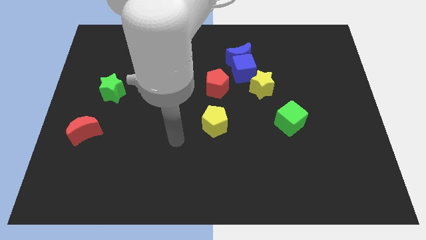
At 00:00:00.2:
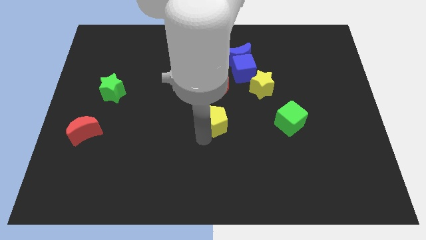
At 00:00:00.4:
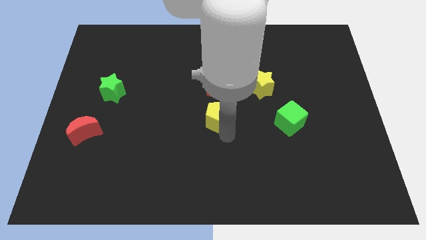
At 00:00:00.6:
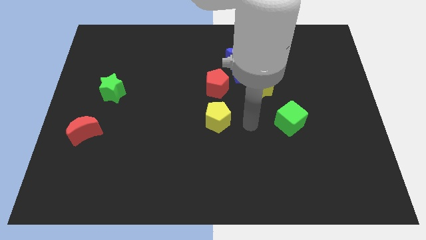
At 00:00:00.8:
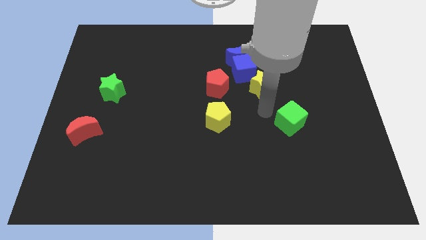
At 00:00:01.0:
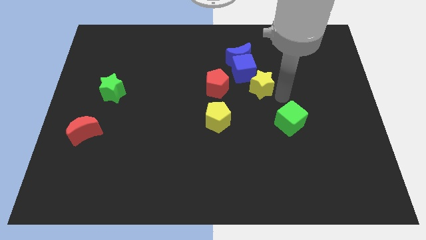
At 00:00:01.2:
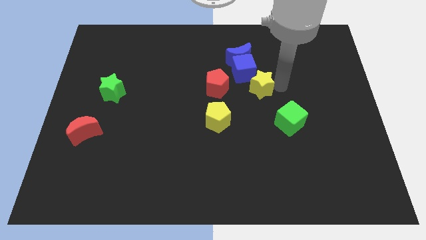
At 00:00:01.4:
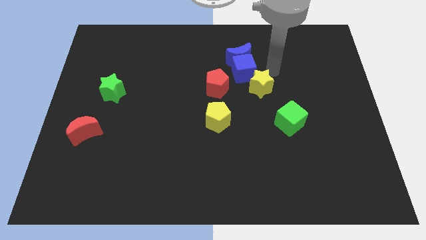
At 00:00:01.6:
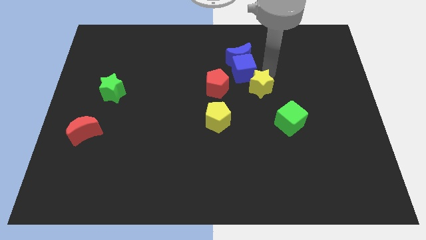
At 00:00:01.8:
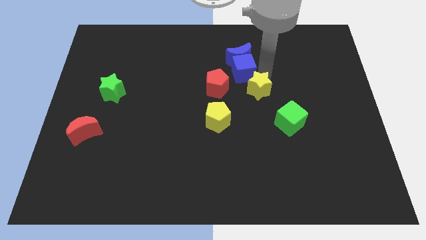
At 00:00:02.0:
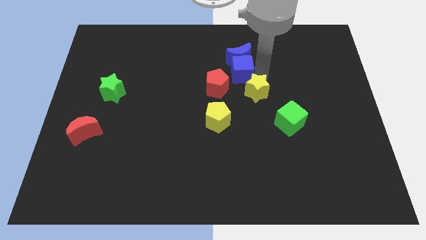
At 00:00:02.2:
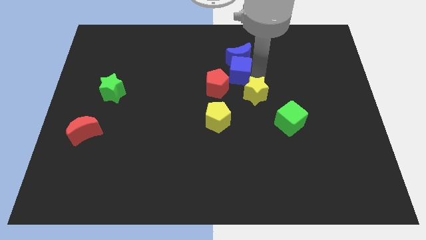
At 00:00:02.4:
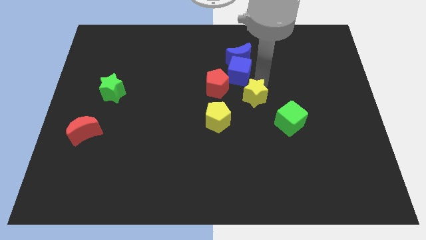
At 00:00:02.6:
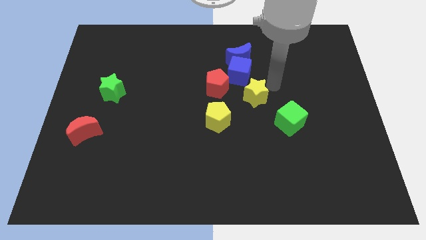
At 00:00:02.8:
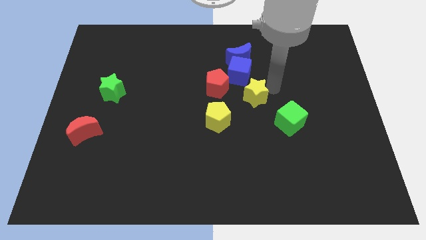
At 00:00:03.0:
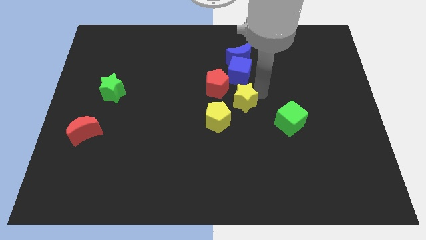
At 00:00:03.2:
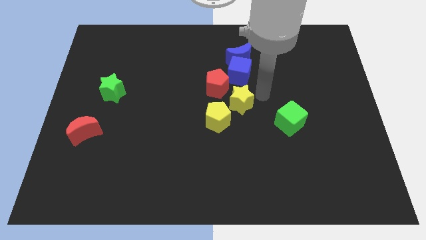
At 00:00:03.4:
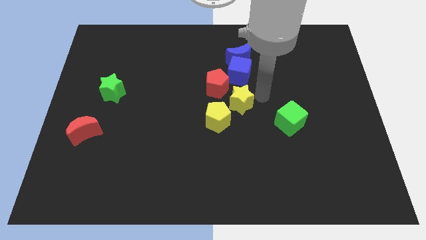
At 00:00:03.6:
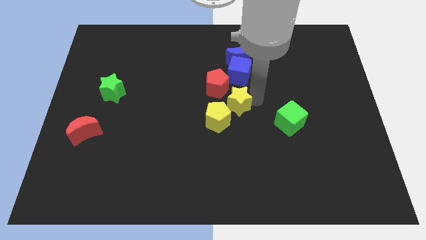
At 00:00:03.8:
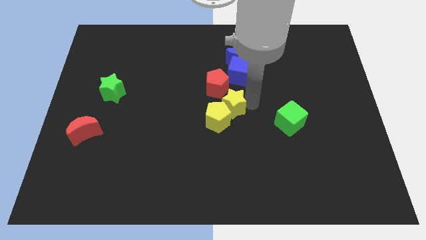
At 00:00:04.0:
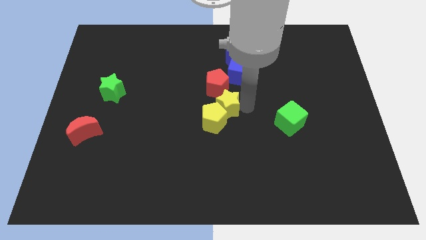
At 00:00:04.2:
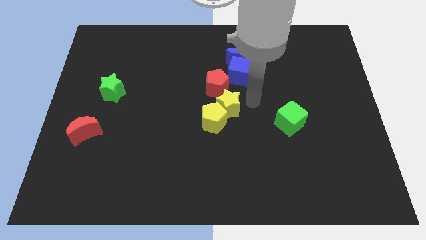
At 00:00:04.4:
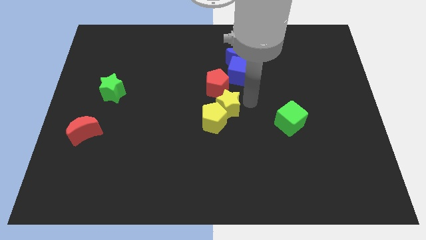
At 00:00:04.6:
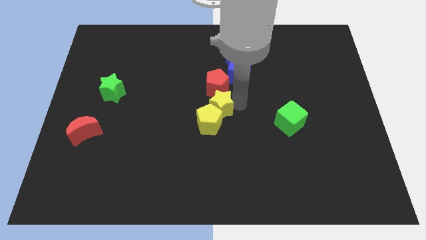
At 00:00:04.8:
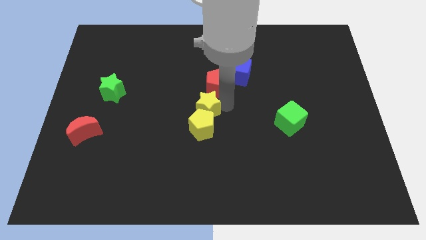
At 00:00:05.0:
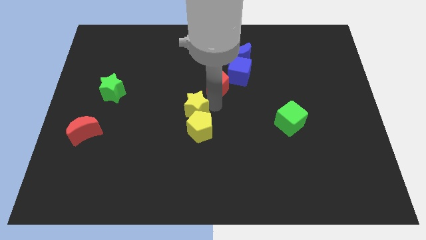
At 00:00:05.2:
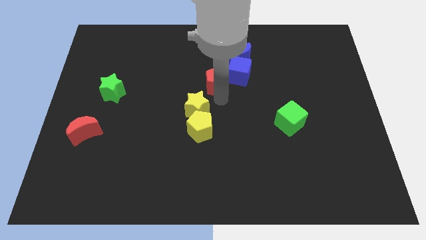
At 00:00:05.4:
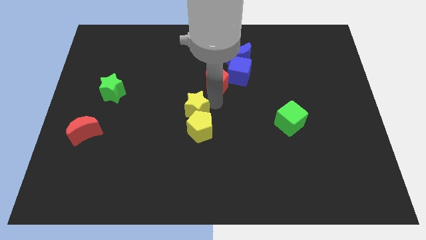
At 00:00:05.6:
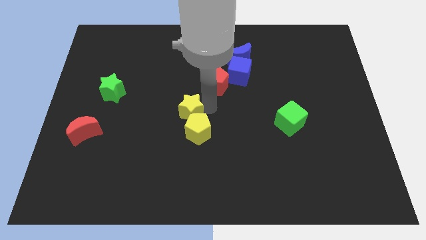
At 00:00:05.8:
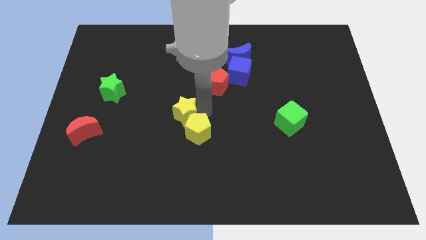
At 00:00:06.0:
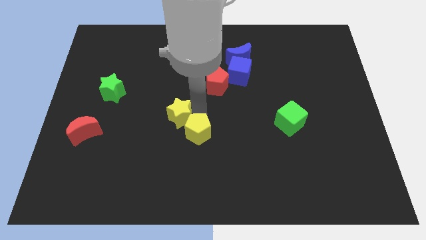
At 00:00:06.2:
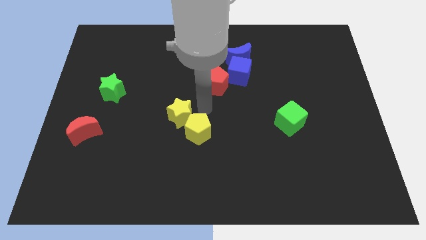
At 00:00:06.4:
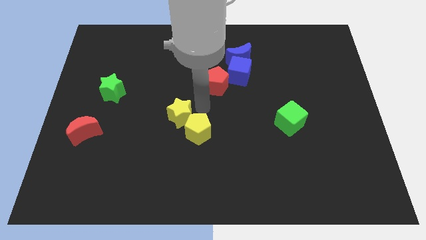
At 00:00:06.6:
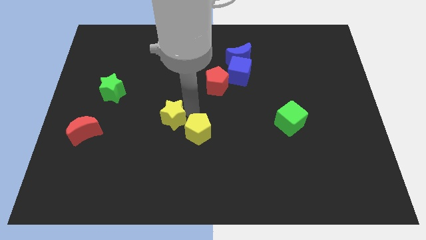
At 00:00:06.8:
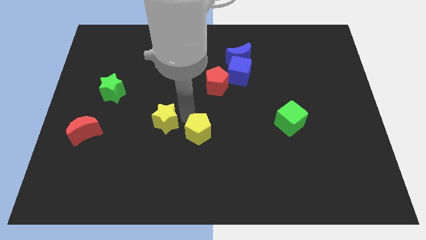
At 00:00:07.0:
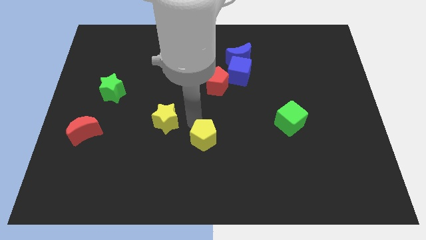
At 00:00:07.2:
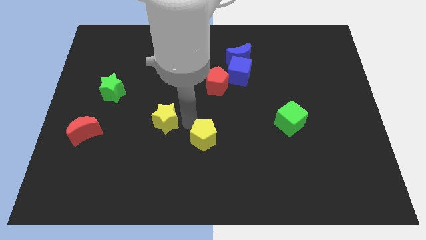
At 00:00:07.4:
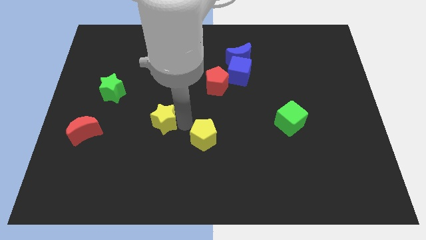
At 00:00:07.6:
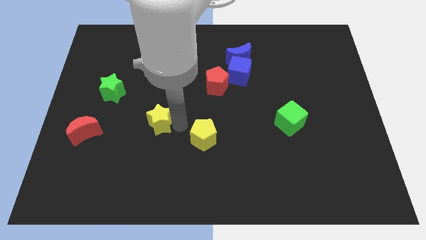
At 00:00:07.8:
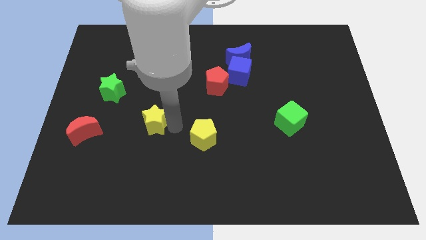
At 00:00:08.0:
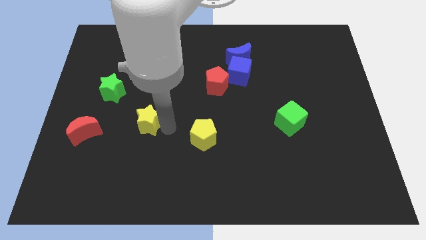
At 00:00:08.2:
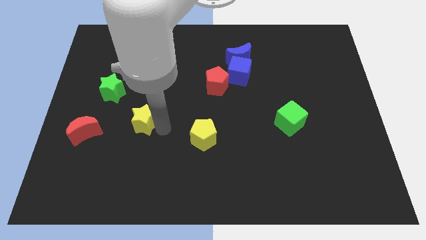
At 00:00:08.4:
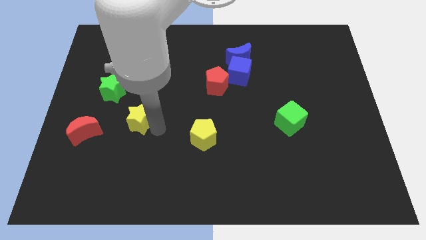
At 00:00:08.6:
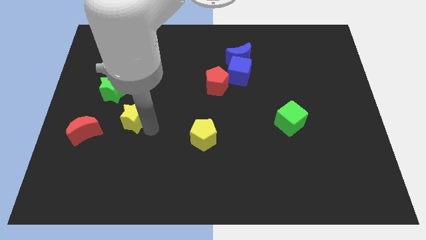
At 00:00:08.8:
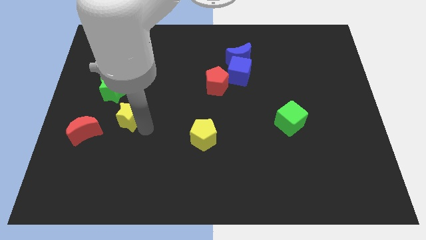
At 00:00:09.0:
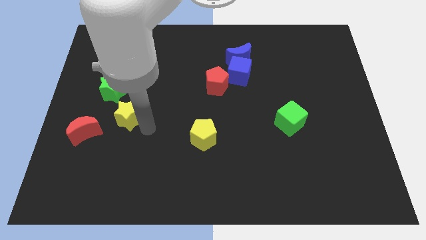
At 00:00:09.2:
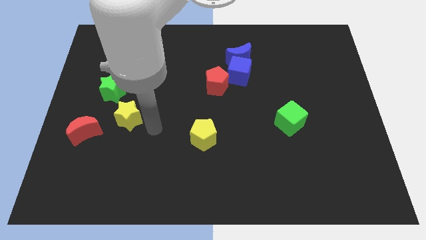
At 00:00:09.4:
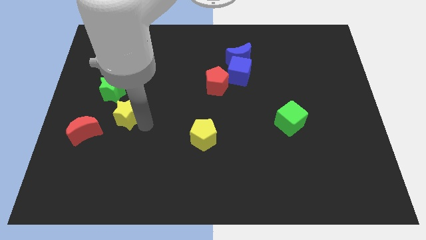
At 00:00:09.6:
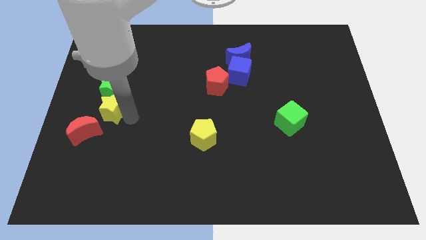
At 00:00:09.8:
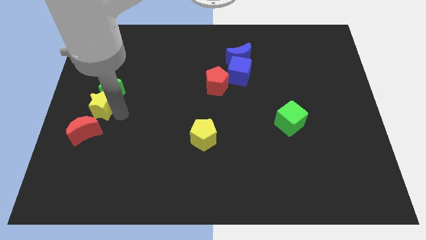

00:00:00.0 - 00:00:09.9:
put the yellow star to the left side

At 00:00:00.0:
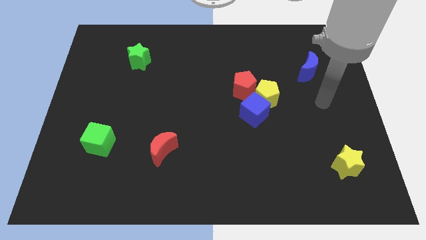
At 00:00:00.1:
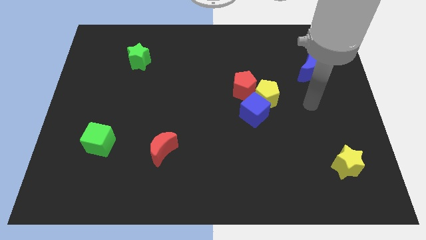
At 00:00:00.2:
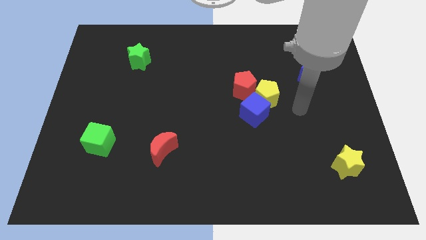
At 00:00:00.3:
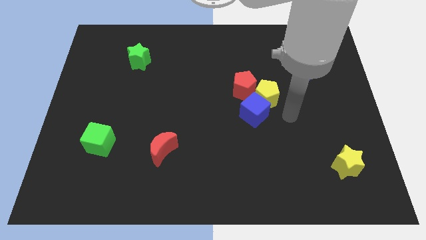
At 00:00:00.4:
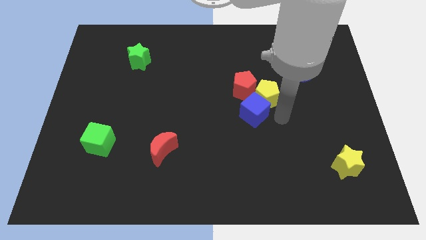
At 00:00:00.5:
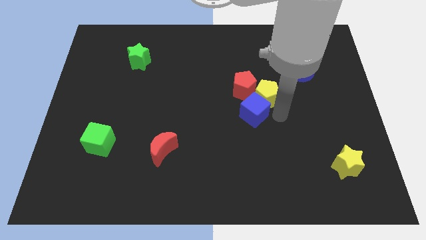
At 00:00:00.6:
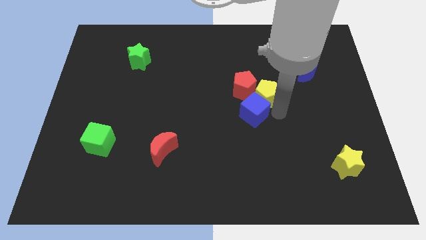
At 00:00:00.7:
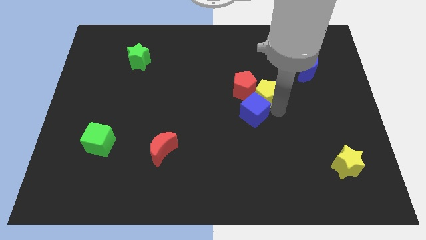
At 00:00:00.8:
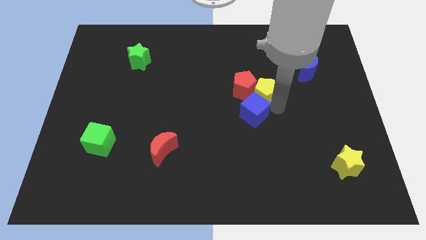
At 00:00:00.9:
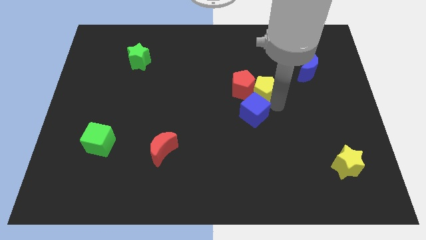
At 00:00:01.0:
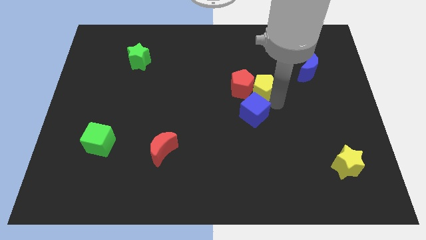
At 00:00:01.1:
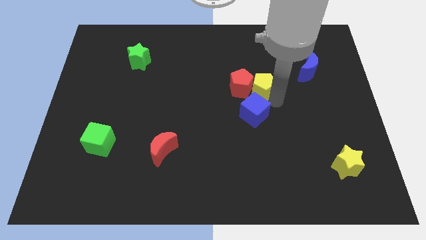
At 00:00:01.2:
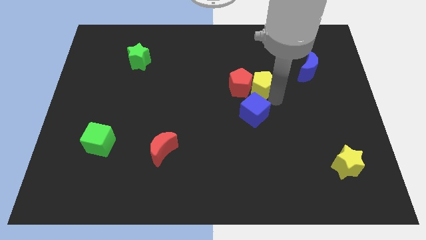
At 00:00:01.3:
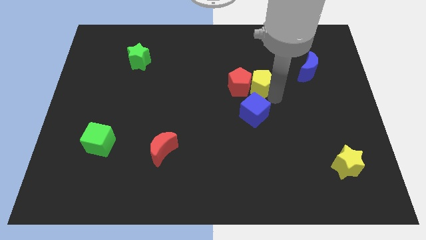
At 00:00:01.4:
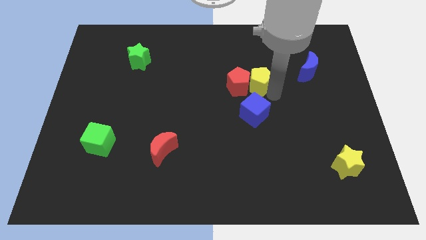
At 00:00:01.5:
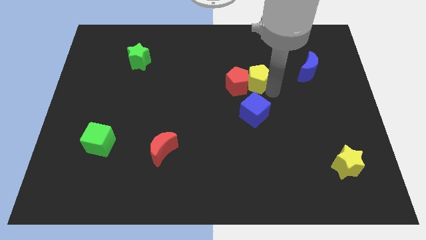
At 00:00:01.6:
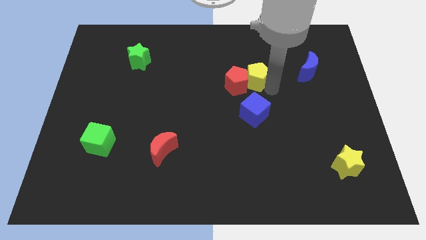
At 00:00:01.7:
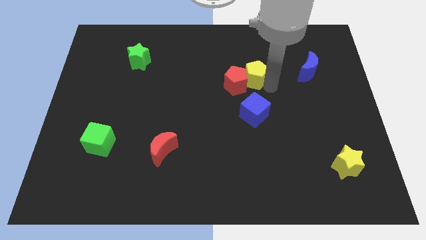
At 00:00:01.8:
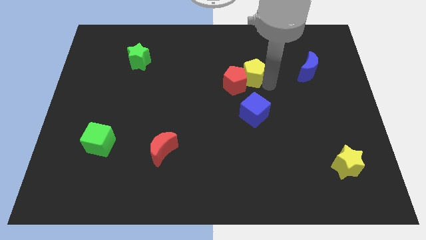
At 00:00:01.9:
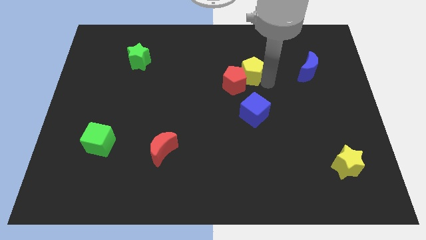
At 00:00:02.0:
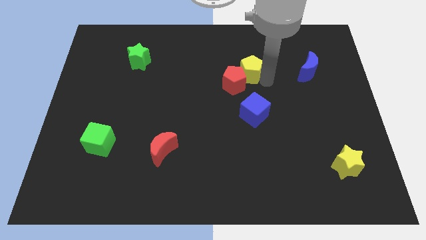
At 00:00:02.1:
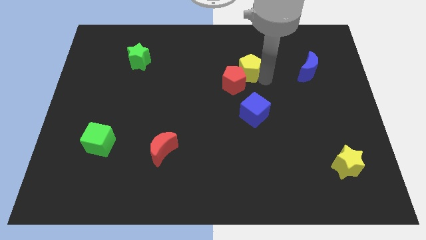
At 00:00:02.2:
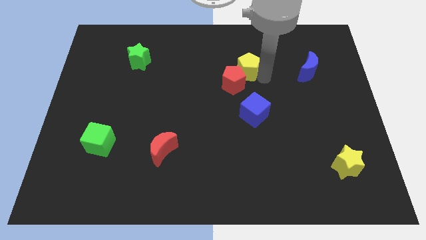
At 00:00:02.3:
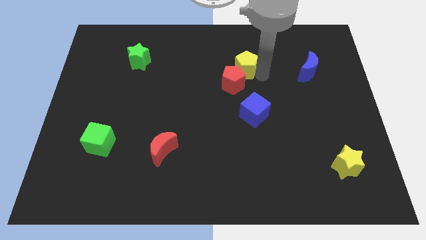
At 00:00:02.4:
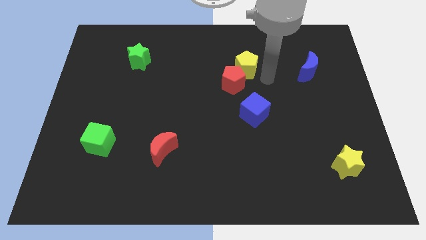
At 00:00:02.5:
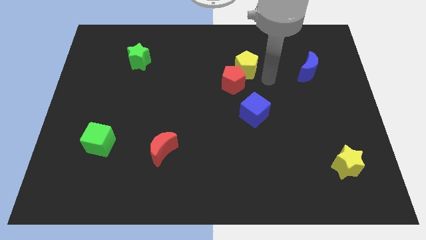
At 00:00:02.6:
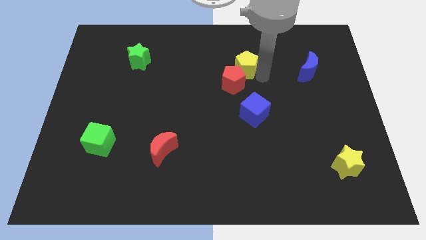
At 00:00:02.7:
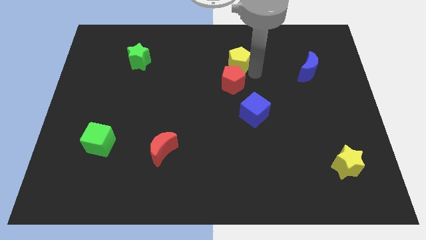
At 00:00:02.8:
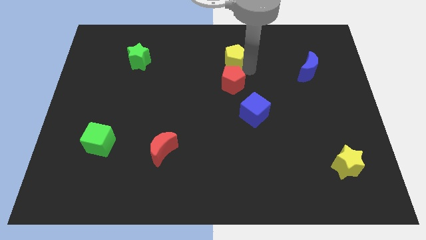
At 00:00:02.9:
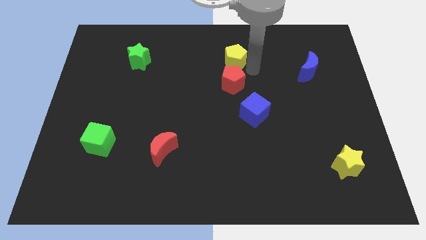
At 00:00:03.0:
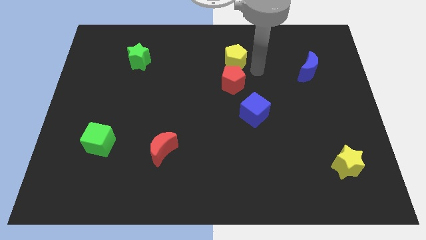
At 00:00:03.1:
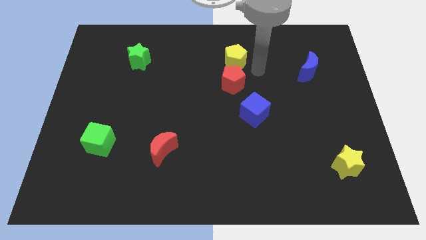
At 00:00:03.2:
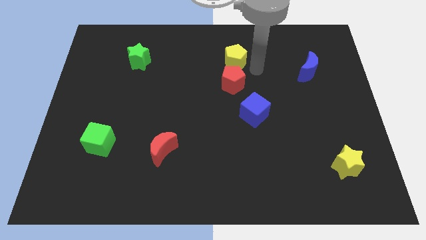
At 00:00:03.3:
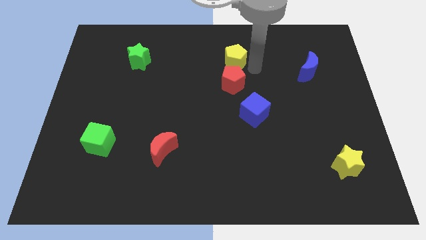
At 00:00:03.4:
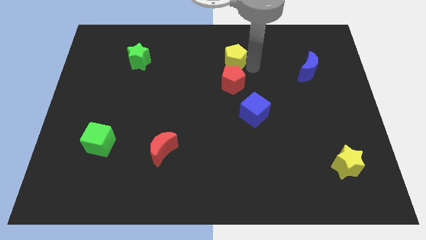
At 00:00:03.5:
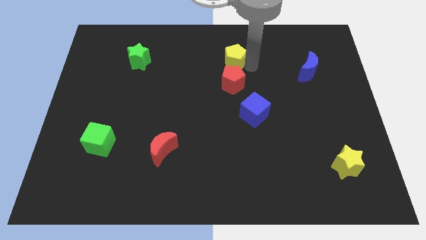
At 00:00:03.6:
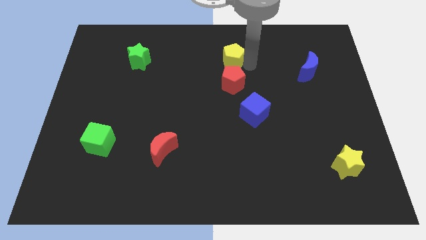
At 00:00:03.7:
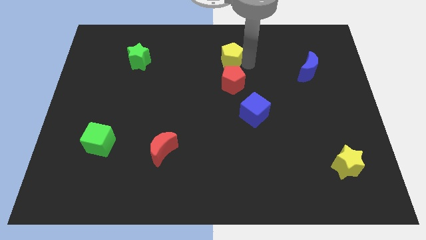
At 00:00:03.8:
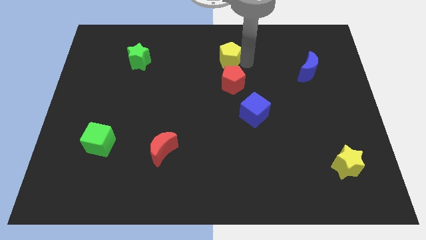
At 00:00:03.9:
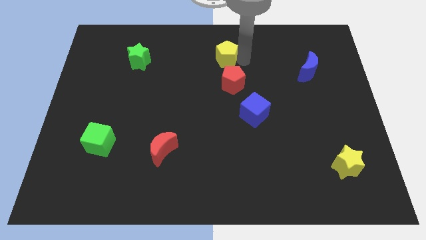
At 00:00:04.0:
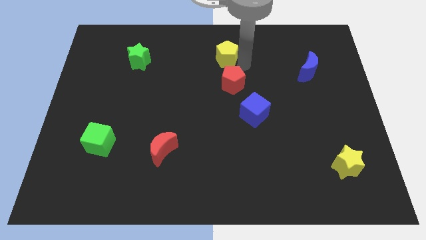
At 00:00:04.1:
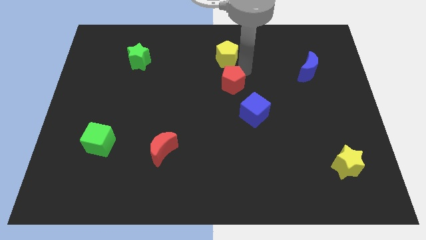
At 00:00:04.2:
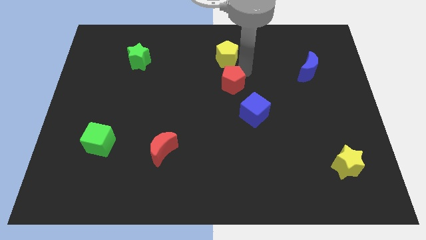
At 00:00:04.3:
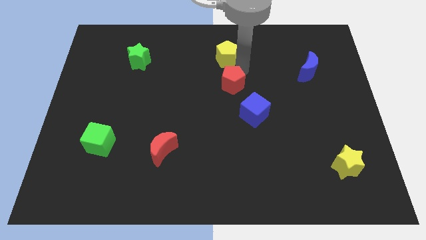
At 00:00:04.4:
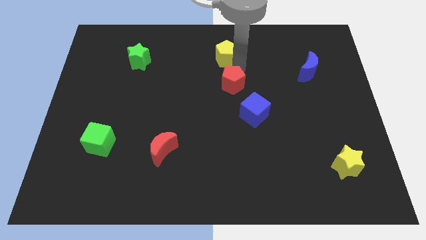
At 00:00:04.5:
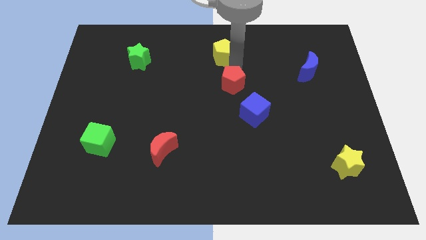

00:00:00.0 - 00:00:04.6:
move the yellow pentagon to the top
